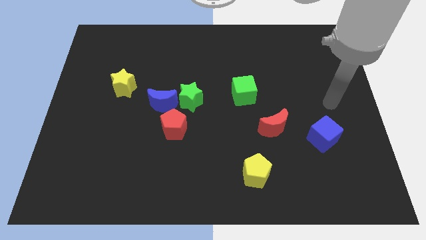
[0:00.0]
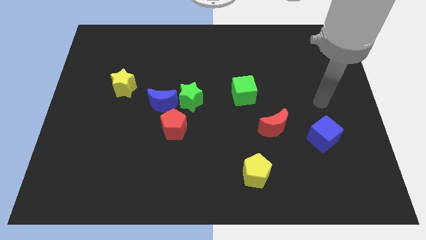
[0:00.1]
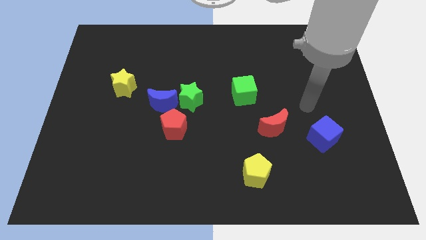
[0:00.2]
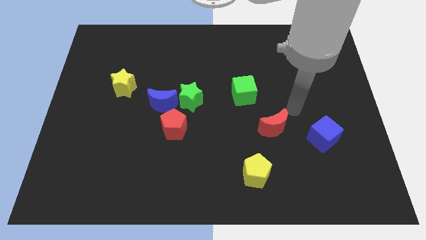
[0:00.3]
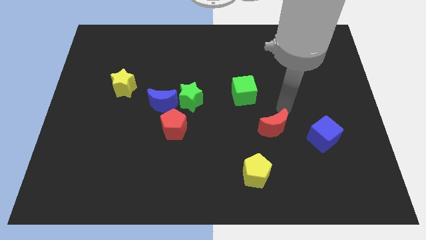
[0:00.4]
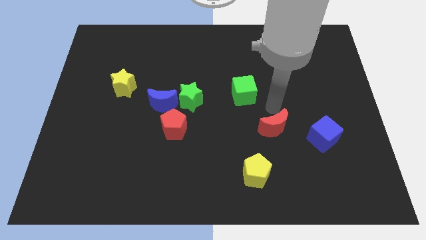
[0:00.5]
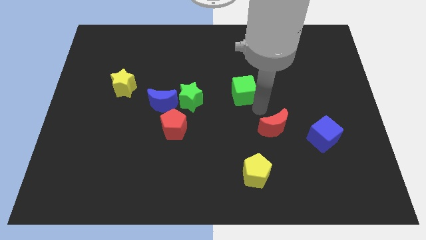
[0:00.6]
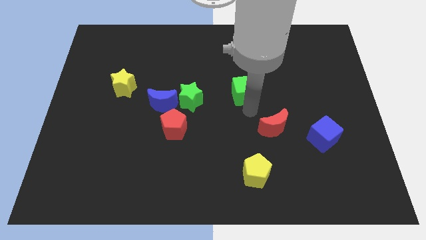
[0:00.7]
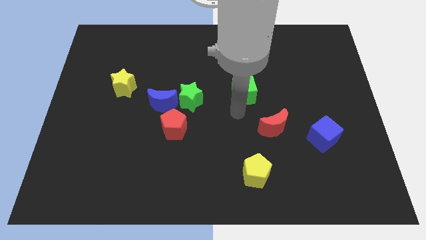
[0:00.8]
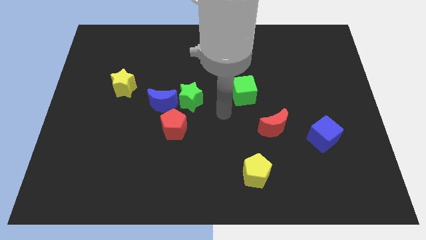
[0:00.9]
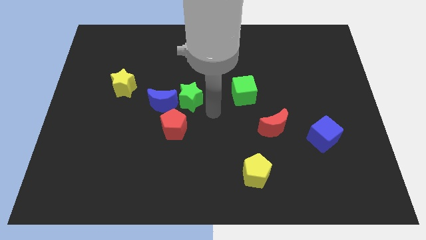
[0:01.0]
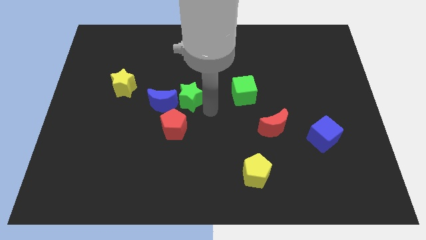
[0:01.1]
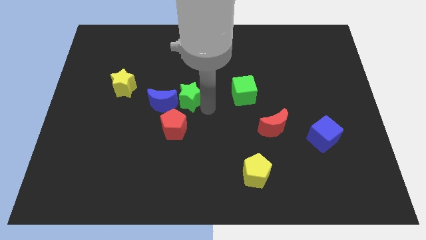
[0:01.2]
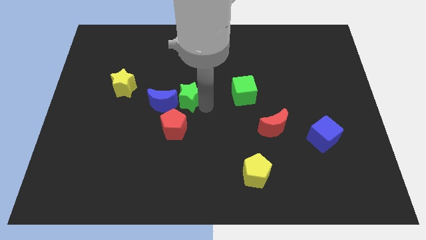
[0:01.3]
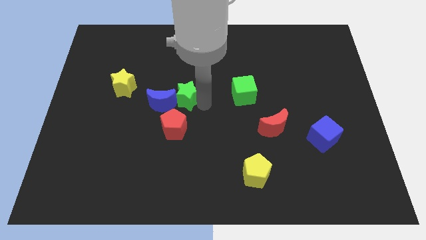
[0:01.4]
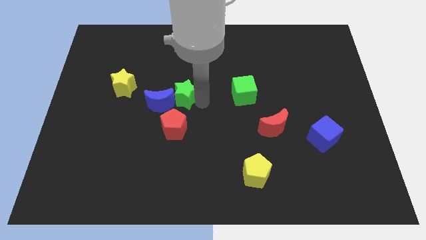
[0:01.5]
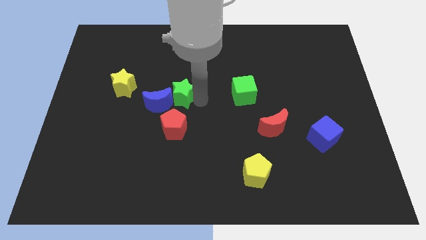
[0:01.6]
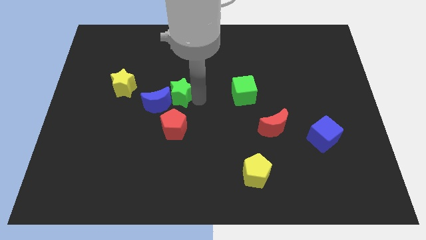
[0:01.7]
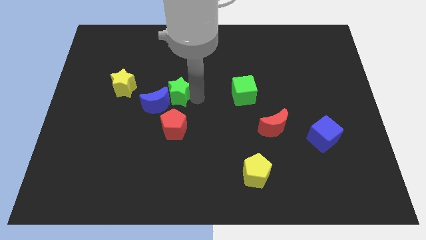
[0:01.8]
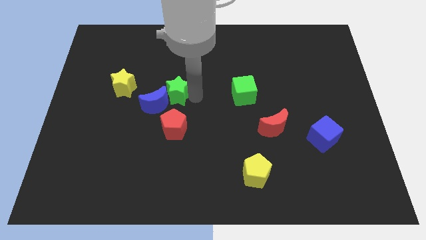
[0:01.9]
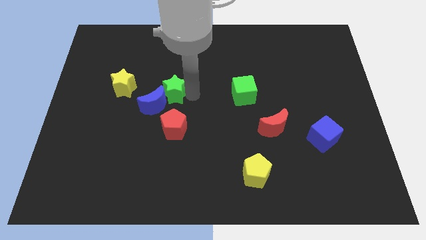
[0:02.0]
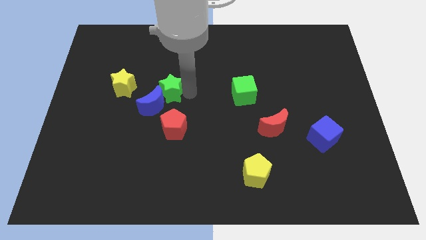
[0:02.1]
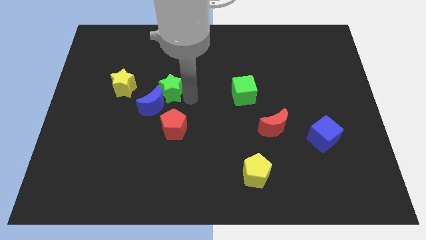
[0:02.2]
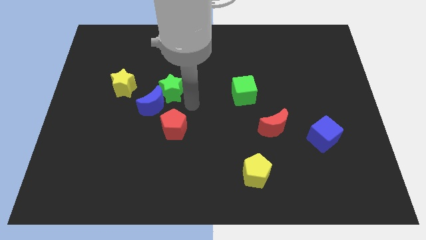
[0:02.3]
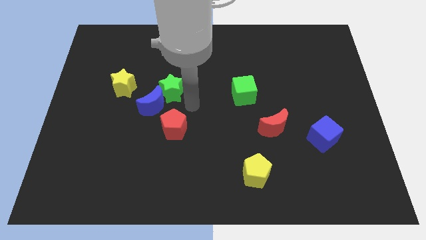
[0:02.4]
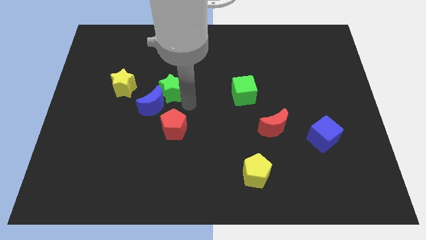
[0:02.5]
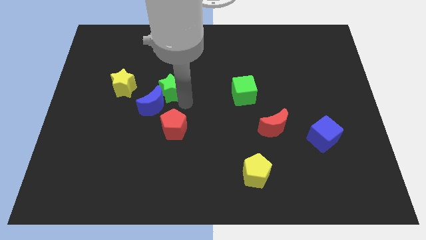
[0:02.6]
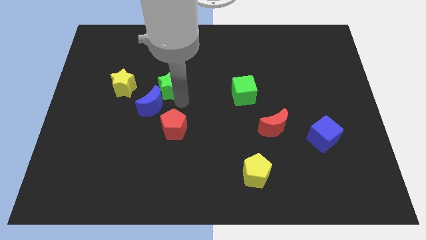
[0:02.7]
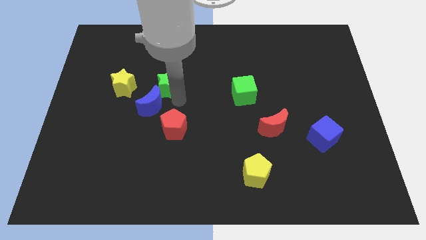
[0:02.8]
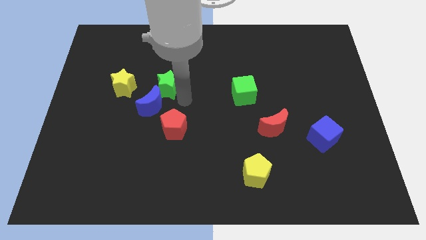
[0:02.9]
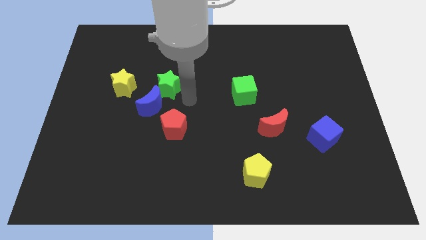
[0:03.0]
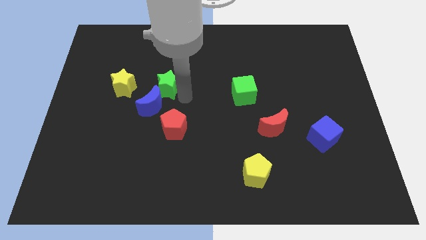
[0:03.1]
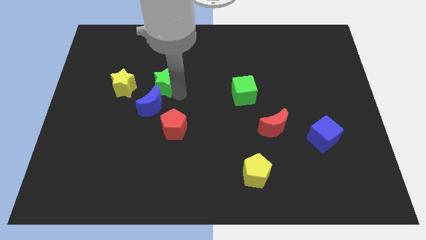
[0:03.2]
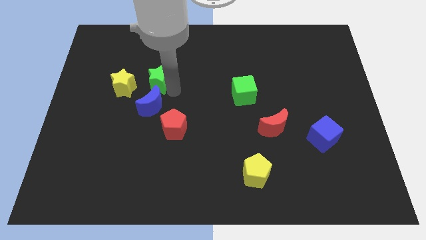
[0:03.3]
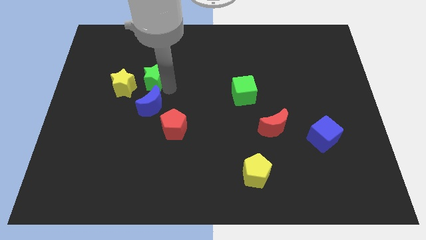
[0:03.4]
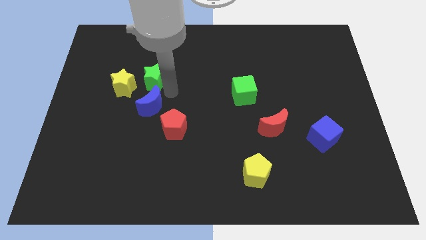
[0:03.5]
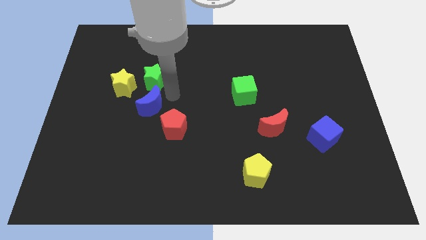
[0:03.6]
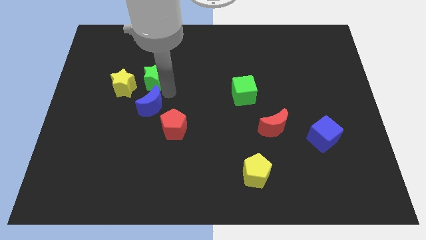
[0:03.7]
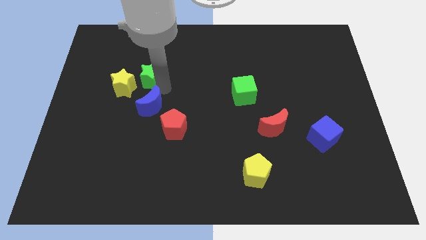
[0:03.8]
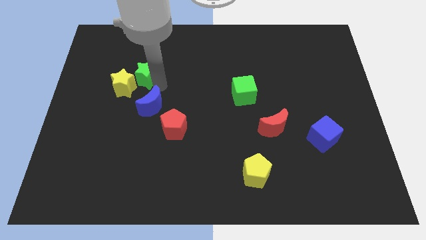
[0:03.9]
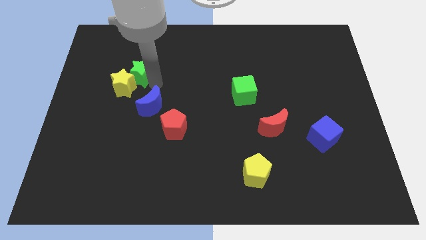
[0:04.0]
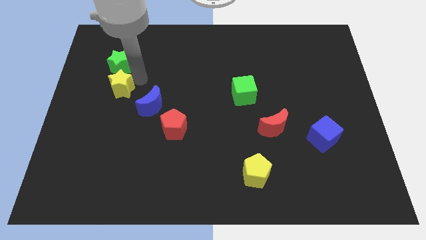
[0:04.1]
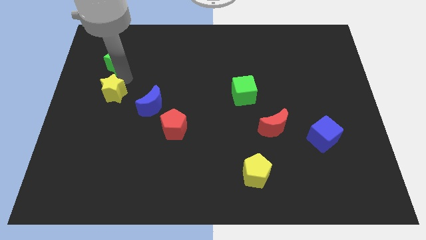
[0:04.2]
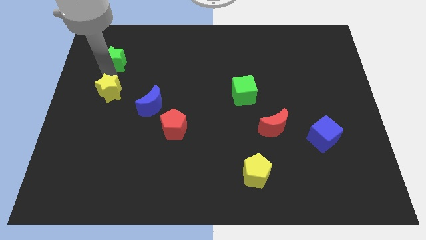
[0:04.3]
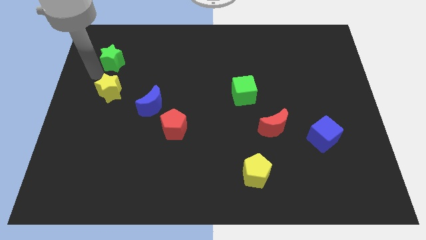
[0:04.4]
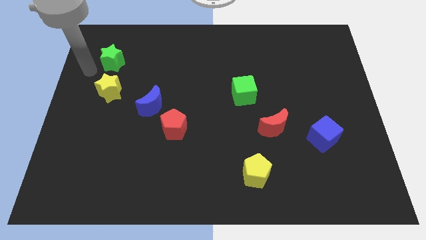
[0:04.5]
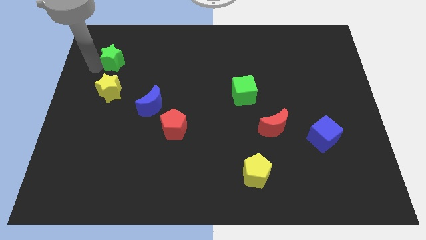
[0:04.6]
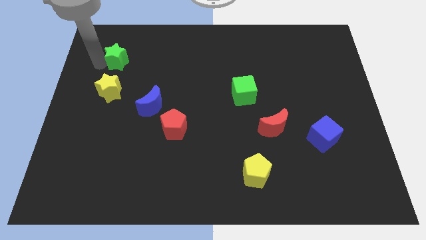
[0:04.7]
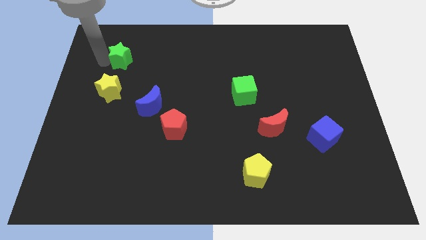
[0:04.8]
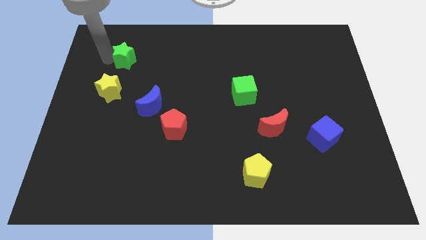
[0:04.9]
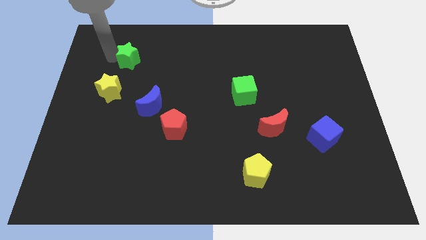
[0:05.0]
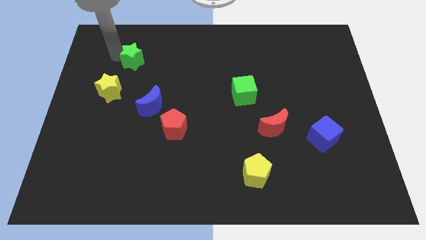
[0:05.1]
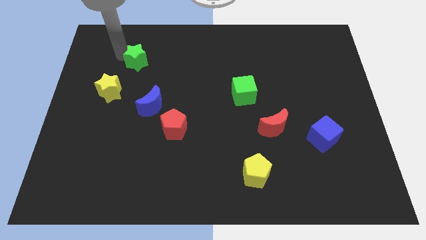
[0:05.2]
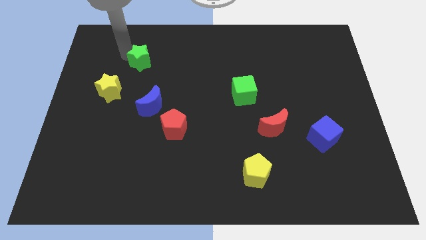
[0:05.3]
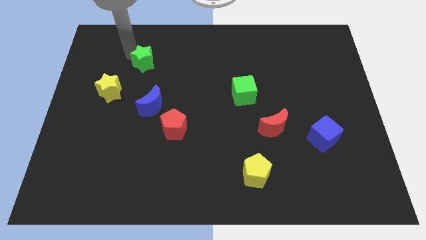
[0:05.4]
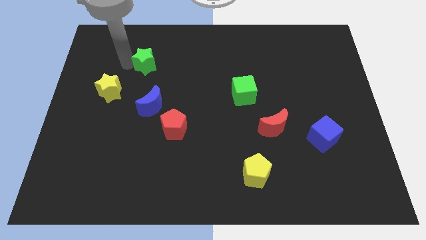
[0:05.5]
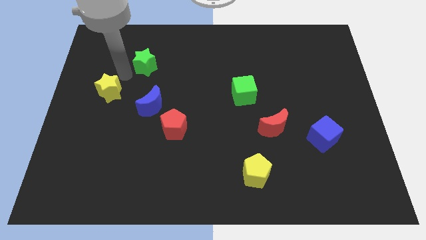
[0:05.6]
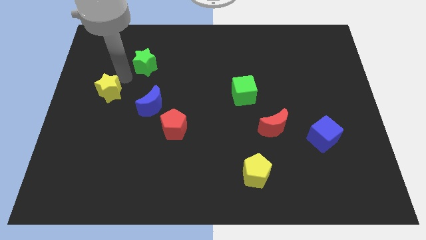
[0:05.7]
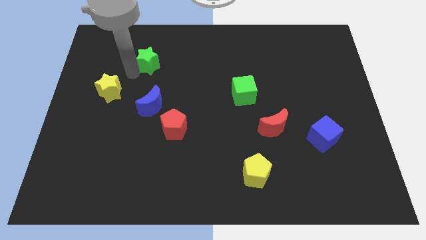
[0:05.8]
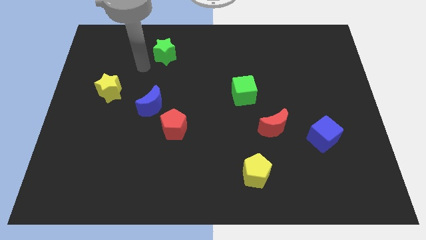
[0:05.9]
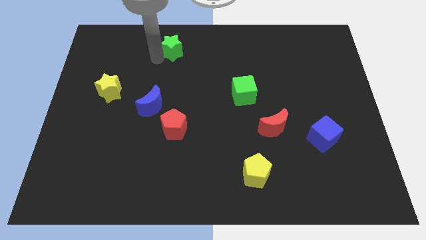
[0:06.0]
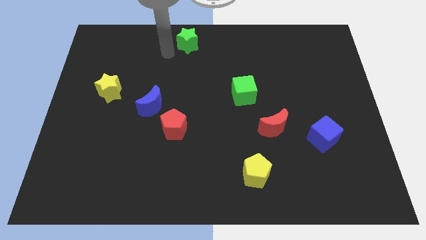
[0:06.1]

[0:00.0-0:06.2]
put the green star to the top
